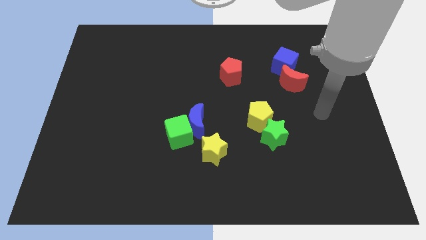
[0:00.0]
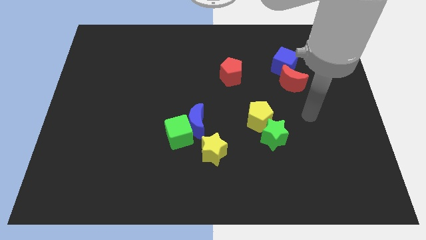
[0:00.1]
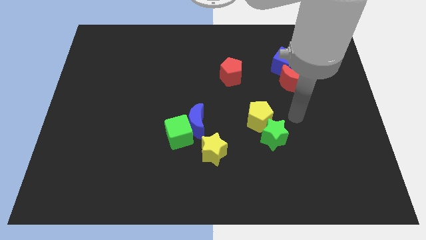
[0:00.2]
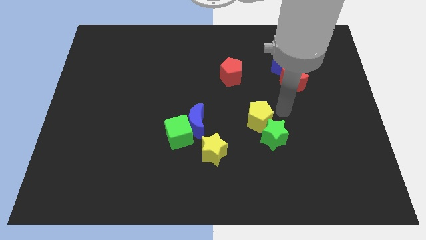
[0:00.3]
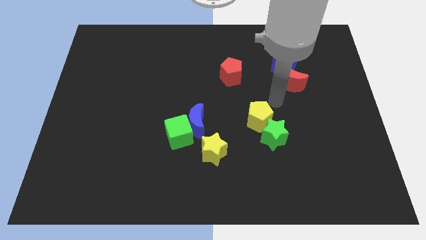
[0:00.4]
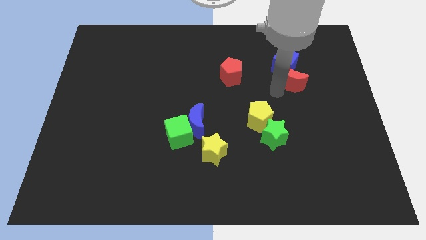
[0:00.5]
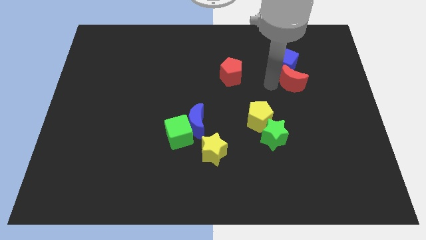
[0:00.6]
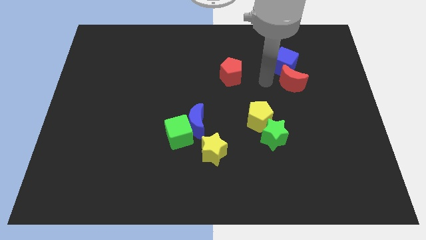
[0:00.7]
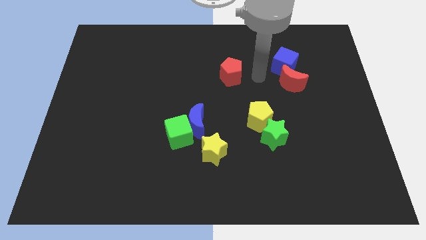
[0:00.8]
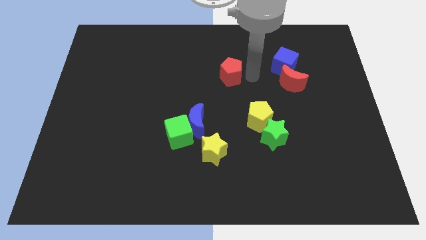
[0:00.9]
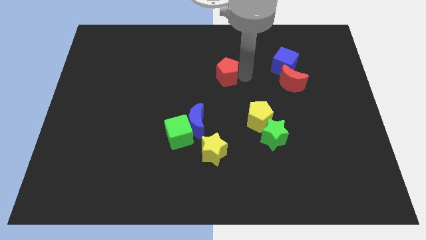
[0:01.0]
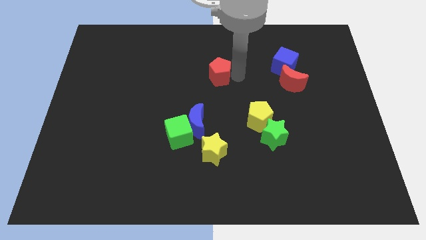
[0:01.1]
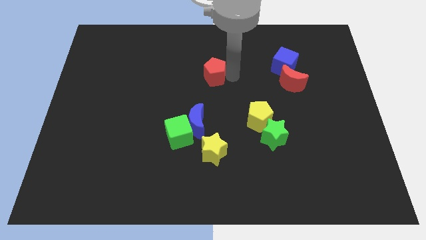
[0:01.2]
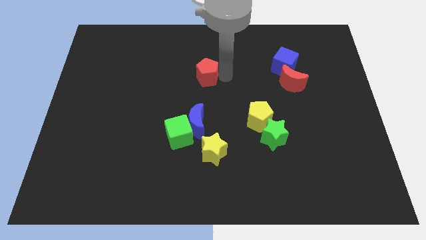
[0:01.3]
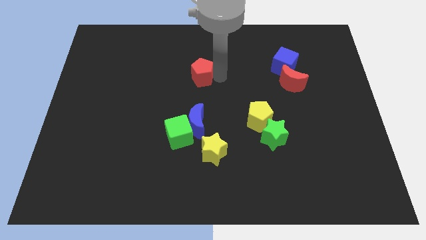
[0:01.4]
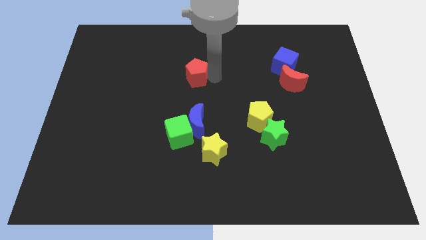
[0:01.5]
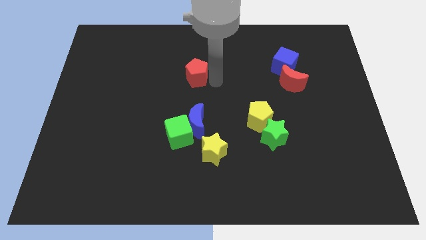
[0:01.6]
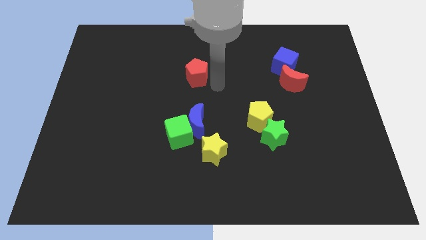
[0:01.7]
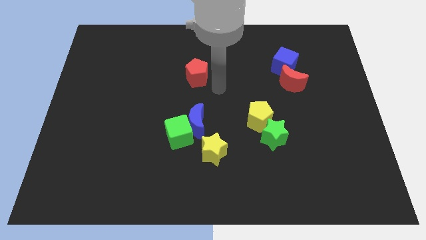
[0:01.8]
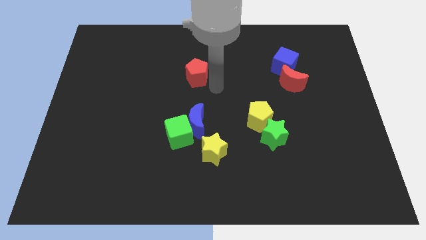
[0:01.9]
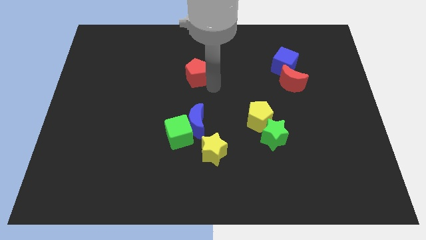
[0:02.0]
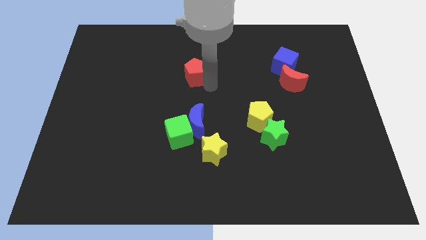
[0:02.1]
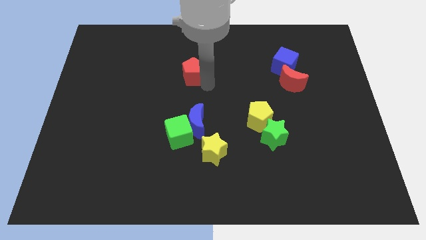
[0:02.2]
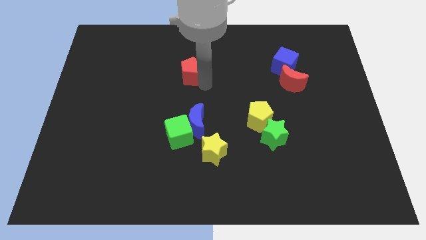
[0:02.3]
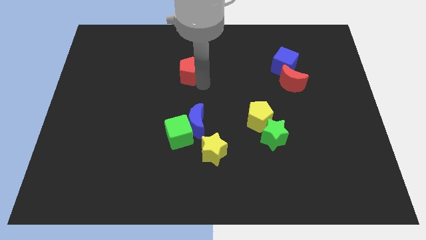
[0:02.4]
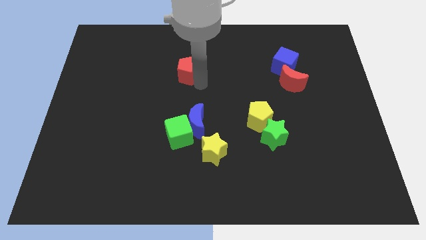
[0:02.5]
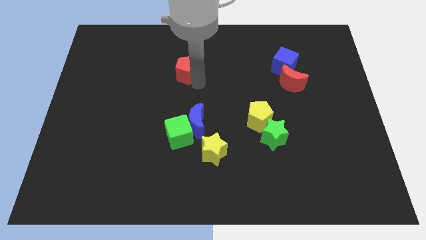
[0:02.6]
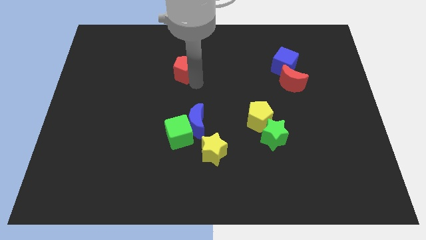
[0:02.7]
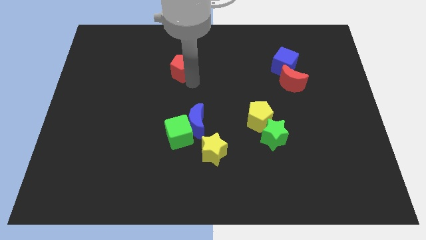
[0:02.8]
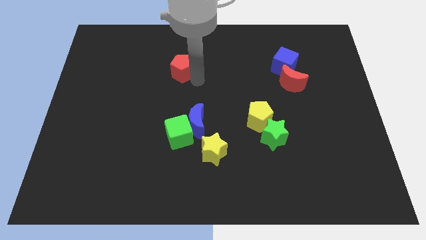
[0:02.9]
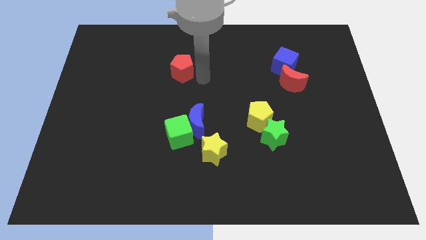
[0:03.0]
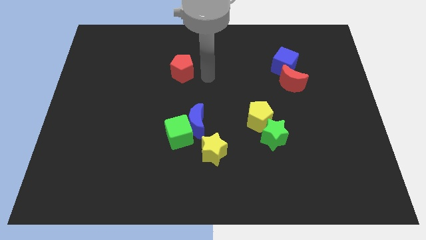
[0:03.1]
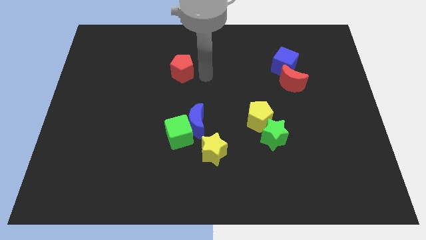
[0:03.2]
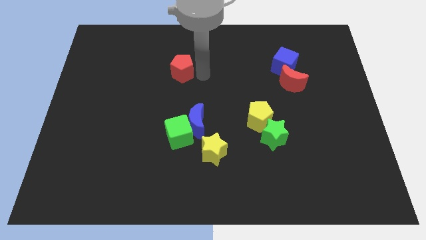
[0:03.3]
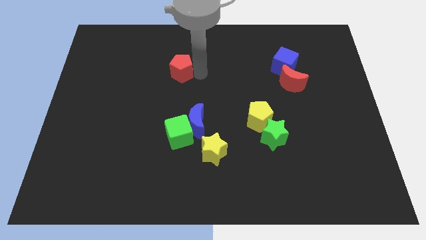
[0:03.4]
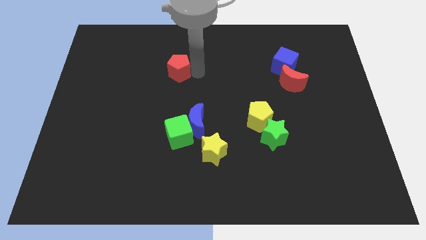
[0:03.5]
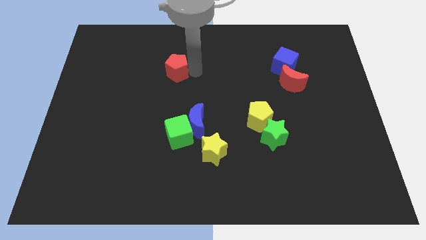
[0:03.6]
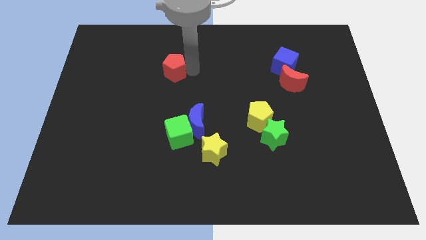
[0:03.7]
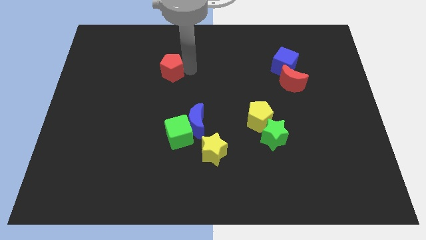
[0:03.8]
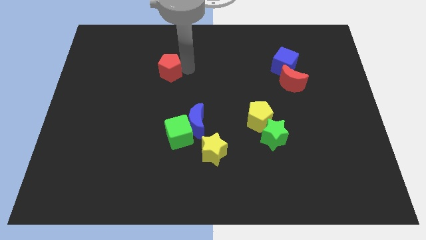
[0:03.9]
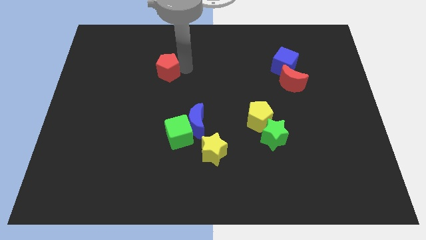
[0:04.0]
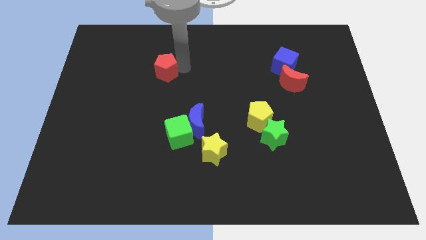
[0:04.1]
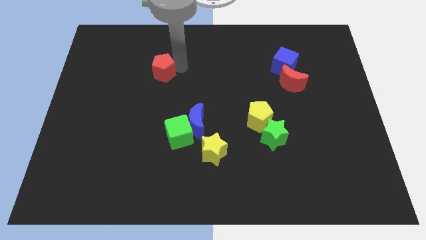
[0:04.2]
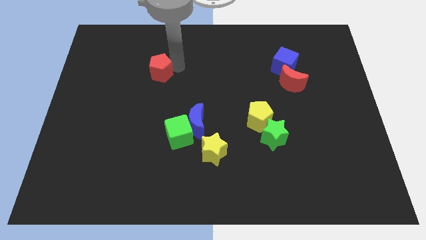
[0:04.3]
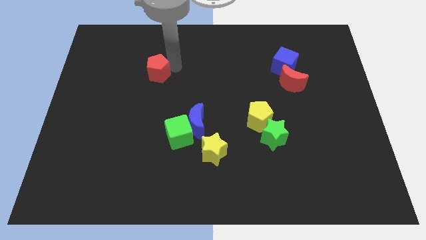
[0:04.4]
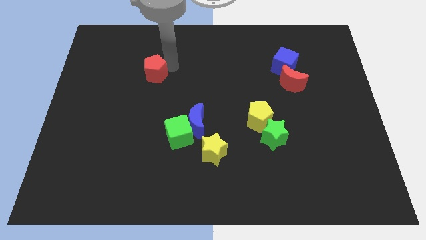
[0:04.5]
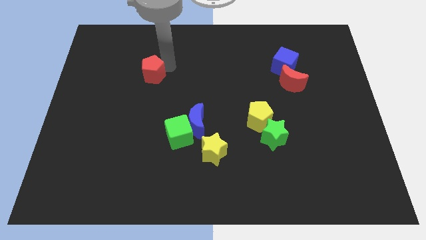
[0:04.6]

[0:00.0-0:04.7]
push the red pentagon left

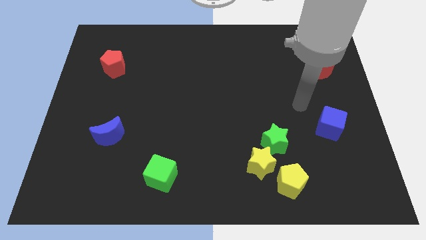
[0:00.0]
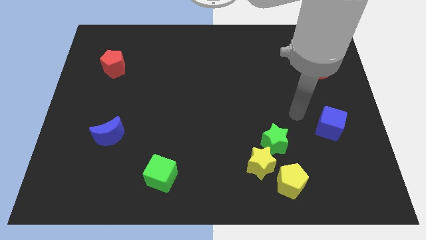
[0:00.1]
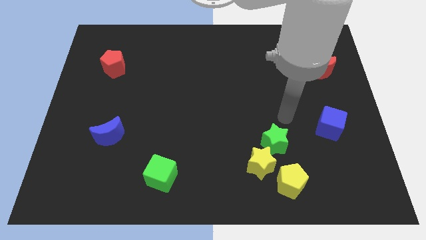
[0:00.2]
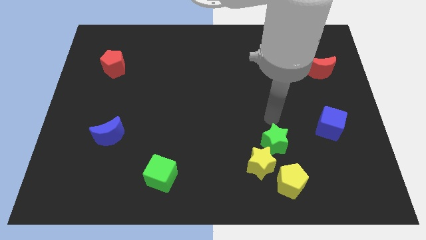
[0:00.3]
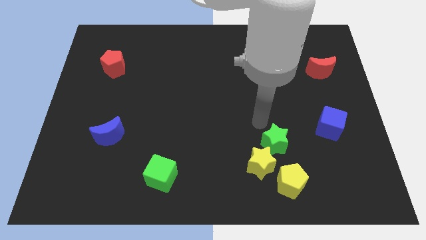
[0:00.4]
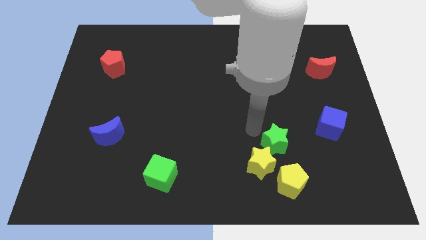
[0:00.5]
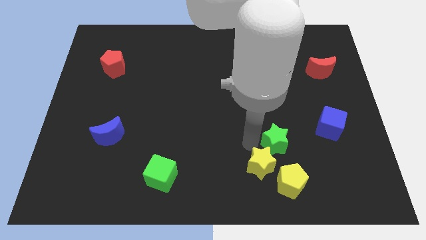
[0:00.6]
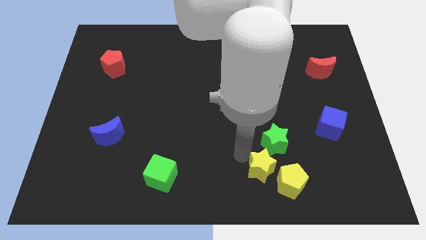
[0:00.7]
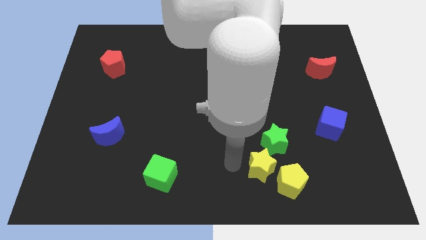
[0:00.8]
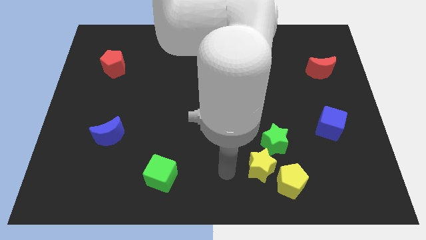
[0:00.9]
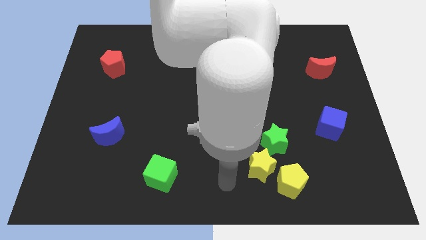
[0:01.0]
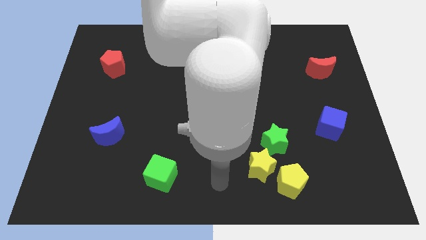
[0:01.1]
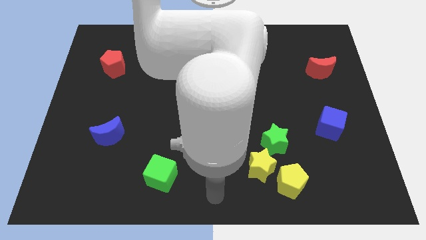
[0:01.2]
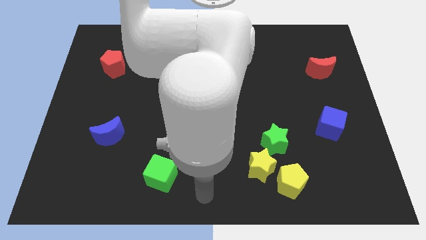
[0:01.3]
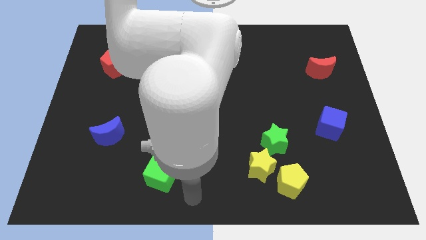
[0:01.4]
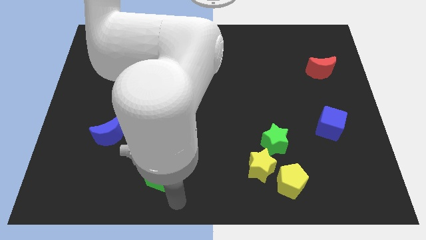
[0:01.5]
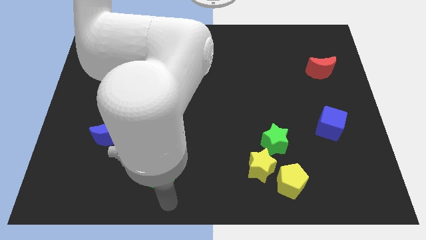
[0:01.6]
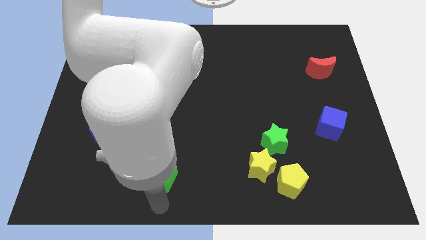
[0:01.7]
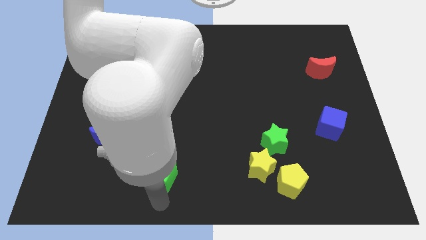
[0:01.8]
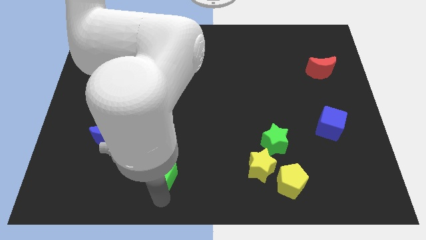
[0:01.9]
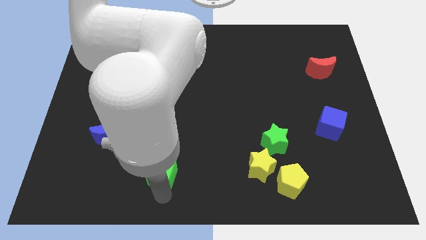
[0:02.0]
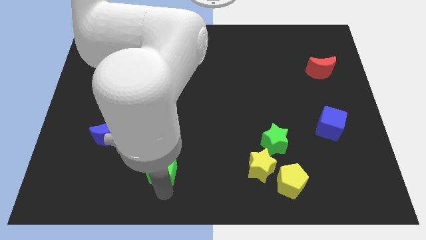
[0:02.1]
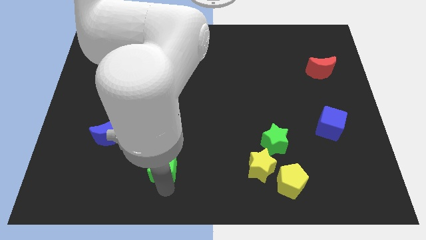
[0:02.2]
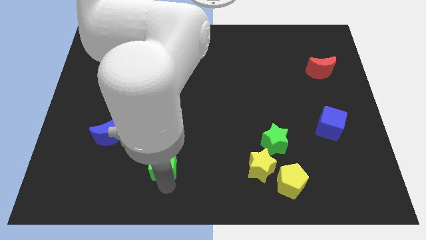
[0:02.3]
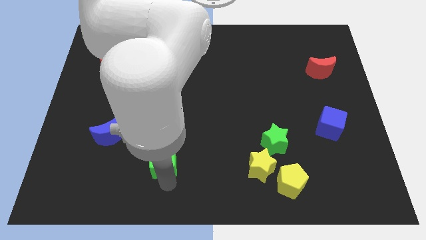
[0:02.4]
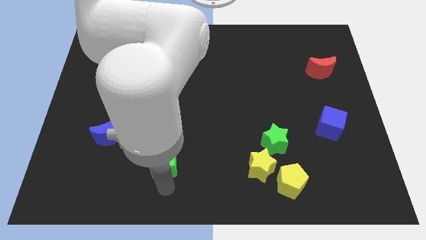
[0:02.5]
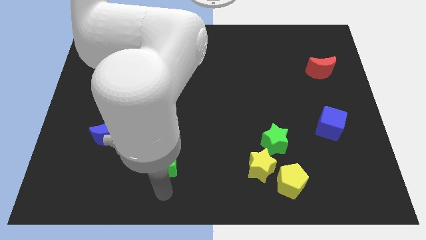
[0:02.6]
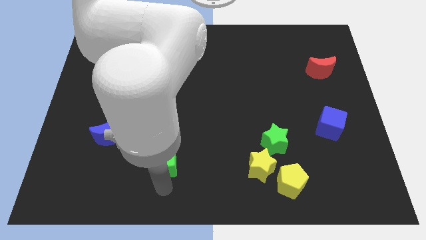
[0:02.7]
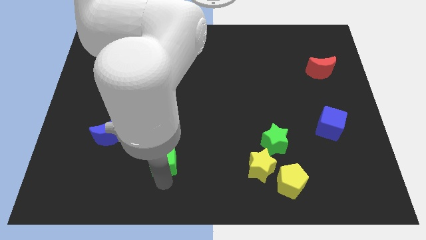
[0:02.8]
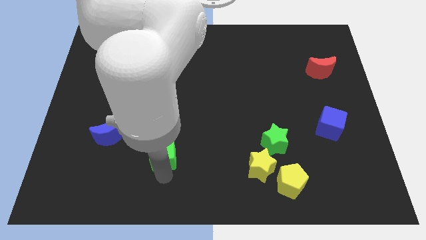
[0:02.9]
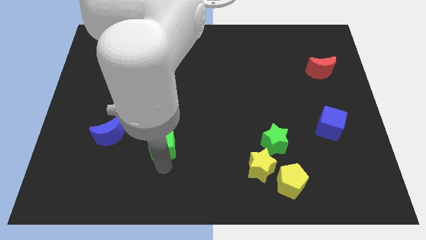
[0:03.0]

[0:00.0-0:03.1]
slightly move the green cube upwards
